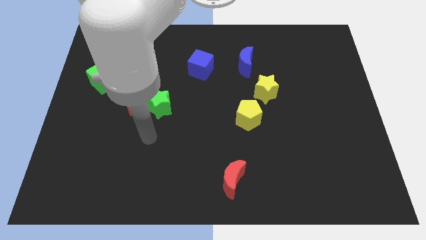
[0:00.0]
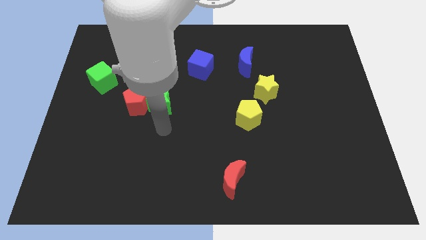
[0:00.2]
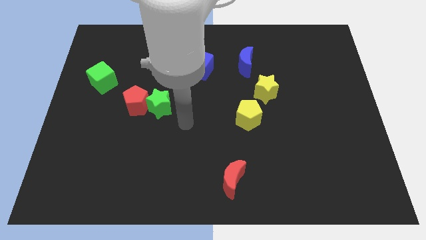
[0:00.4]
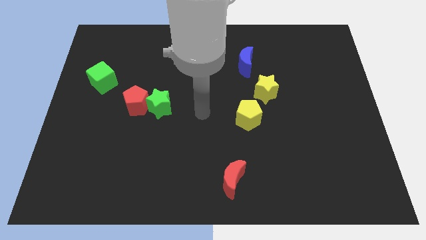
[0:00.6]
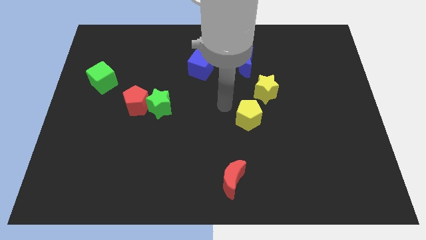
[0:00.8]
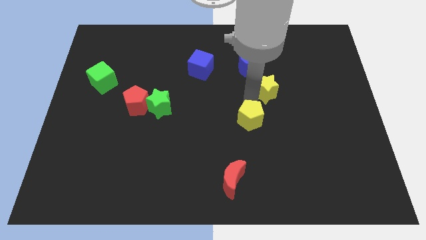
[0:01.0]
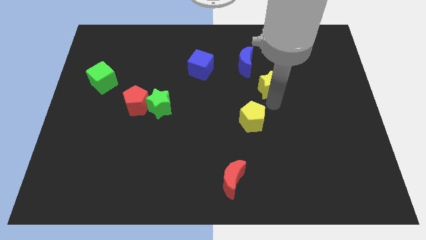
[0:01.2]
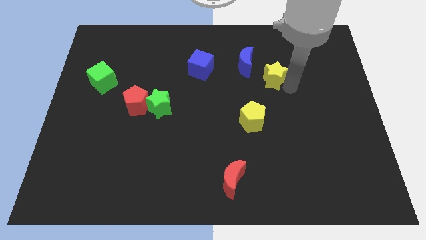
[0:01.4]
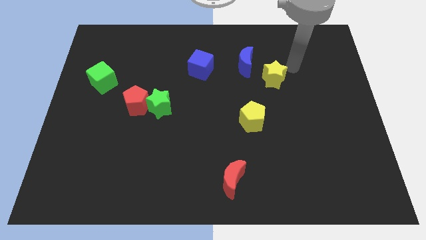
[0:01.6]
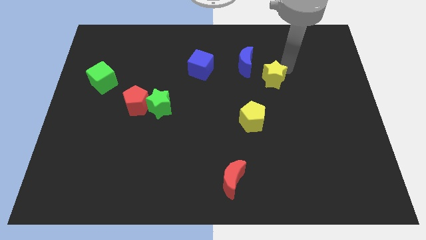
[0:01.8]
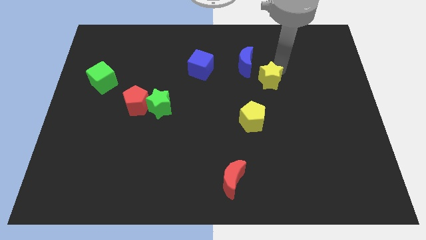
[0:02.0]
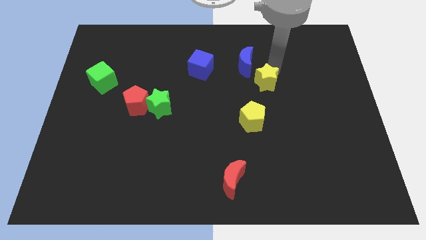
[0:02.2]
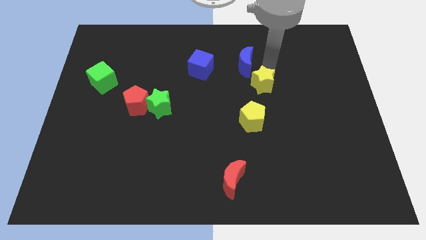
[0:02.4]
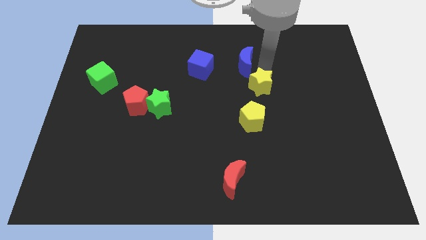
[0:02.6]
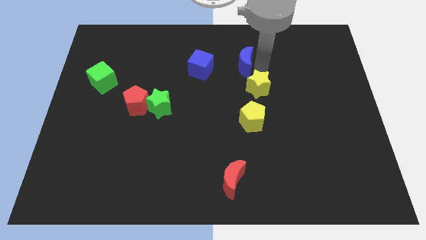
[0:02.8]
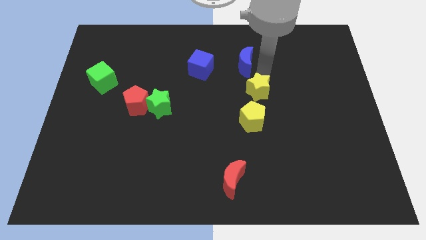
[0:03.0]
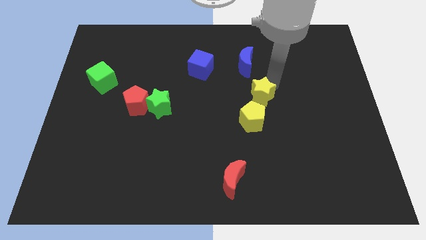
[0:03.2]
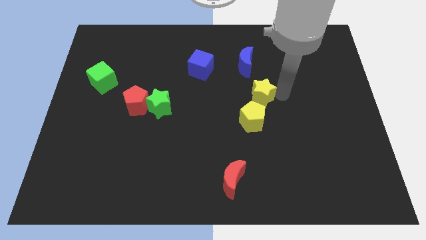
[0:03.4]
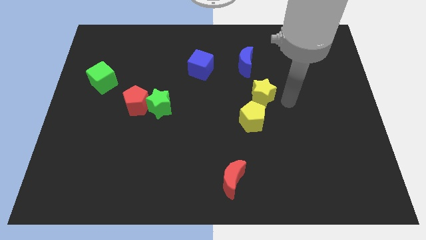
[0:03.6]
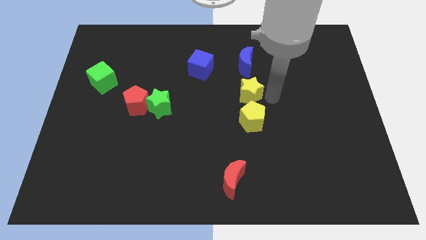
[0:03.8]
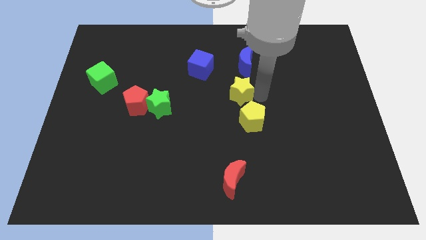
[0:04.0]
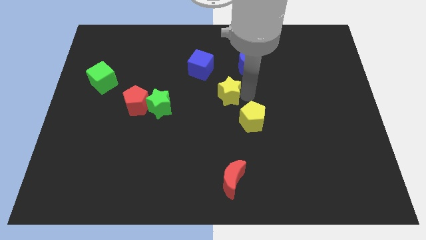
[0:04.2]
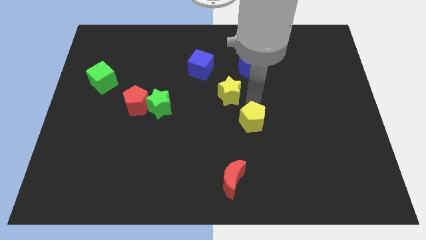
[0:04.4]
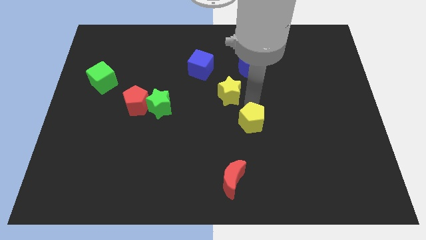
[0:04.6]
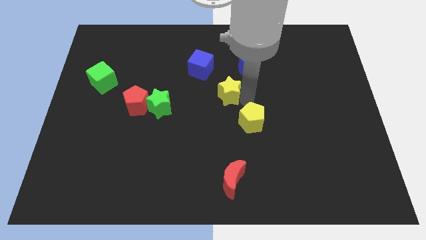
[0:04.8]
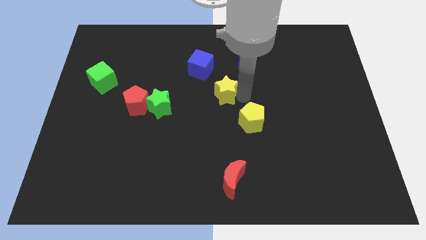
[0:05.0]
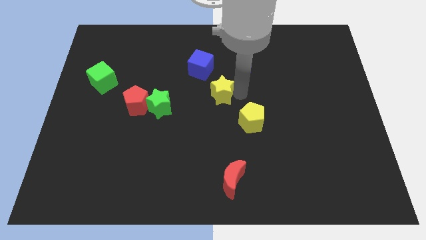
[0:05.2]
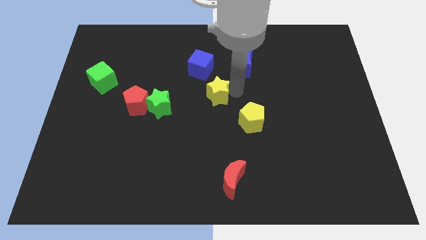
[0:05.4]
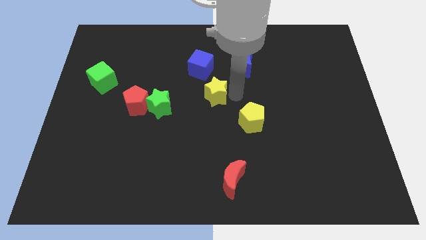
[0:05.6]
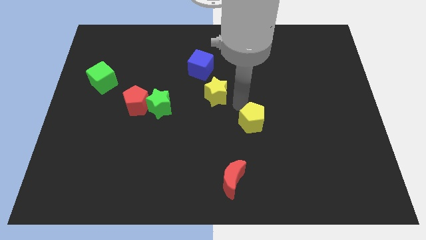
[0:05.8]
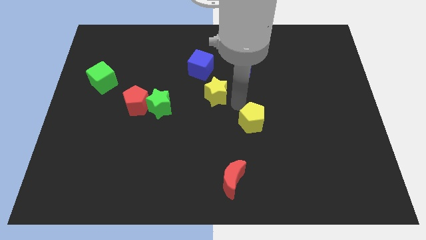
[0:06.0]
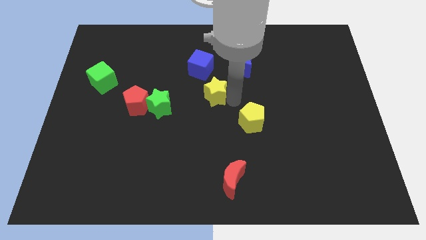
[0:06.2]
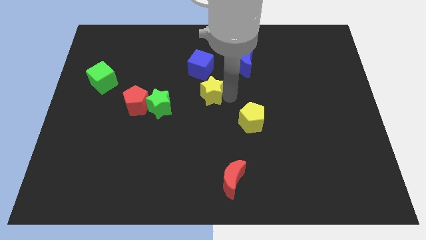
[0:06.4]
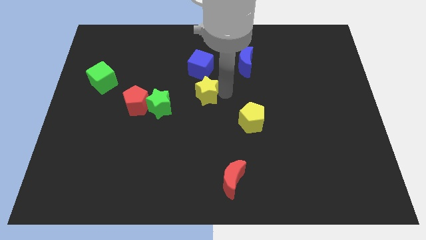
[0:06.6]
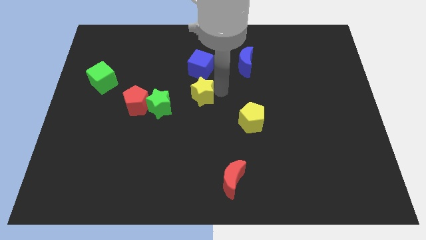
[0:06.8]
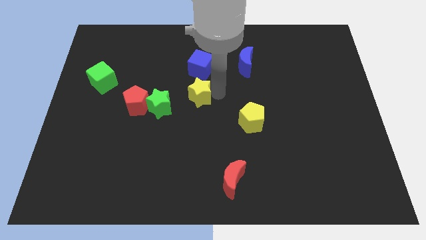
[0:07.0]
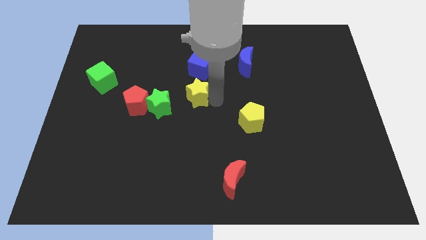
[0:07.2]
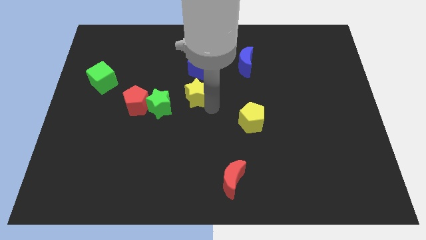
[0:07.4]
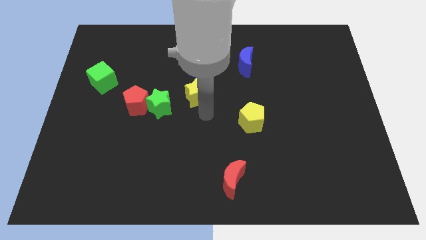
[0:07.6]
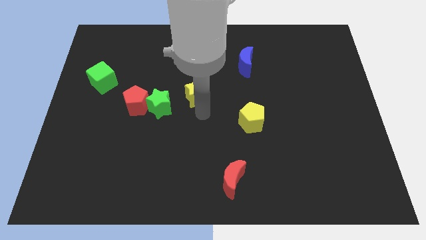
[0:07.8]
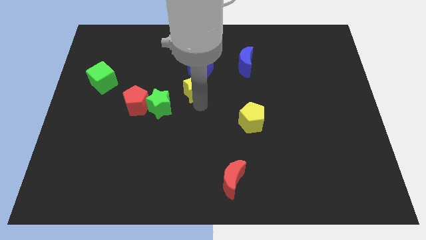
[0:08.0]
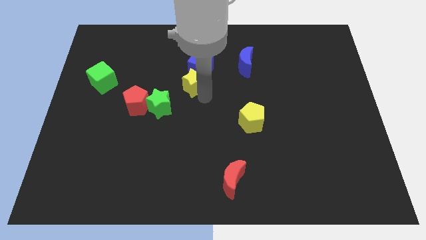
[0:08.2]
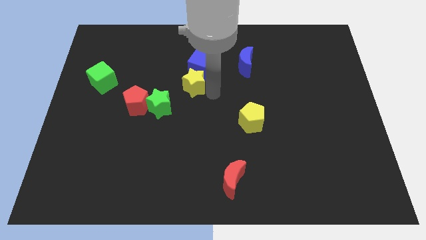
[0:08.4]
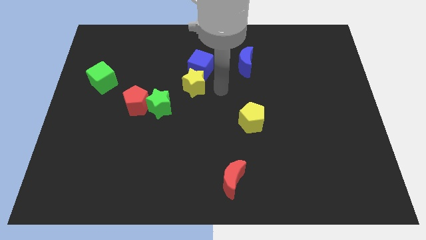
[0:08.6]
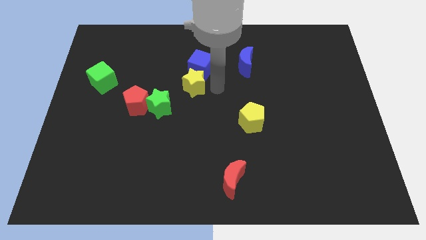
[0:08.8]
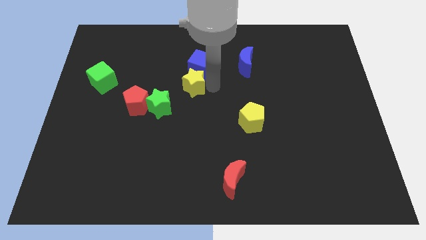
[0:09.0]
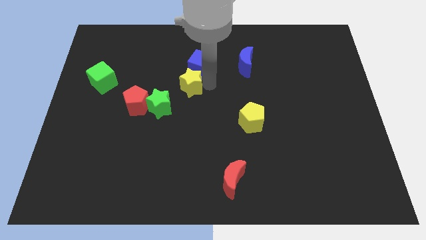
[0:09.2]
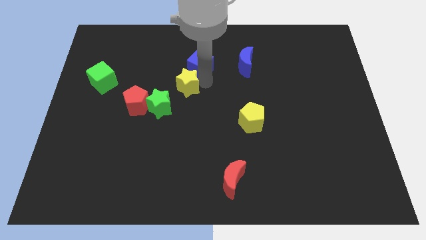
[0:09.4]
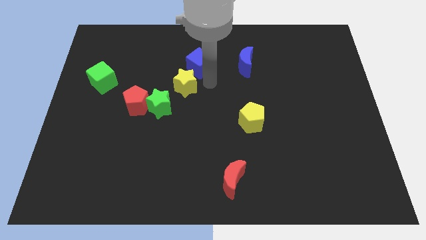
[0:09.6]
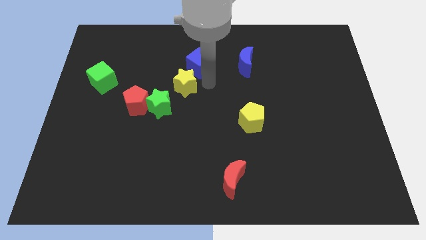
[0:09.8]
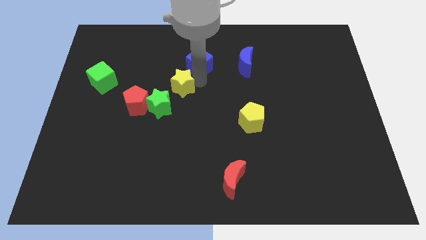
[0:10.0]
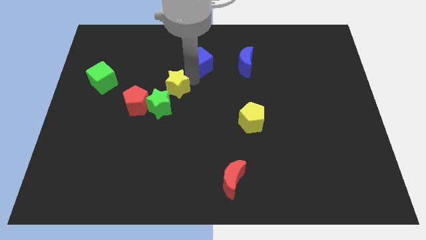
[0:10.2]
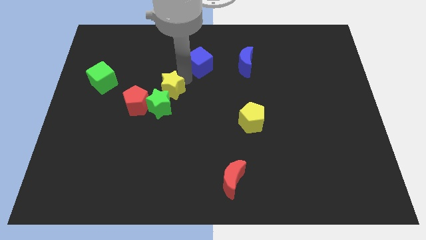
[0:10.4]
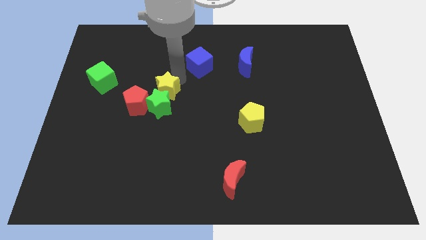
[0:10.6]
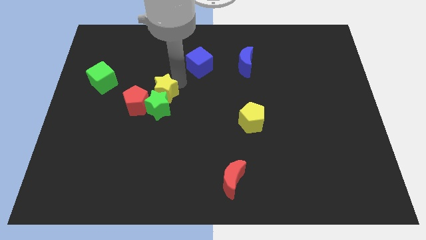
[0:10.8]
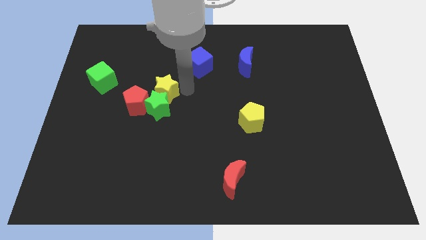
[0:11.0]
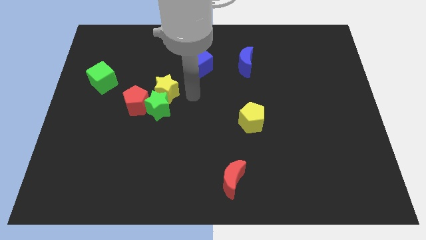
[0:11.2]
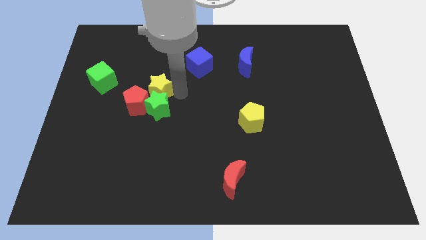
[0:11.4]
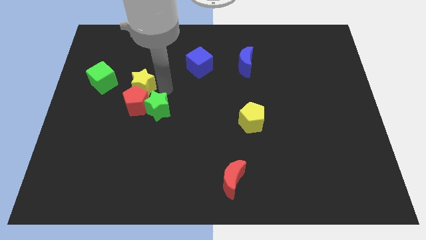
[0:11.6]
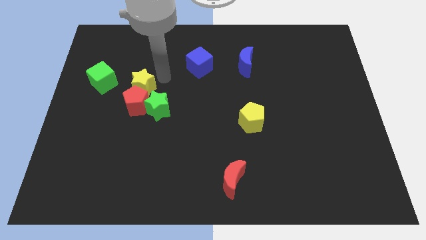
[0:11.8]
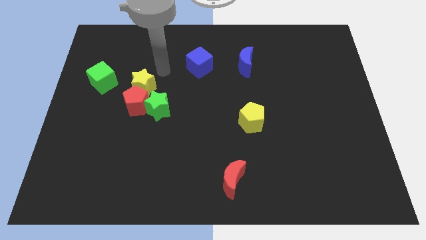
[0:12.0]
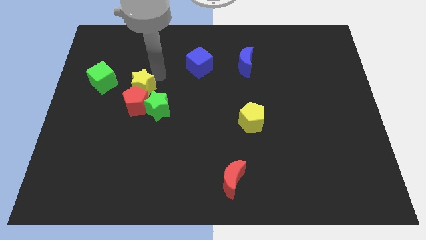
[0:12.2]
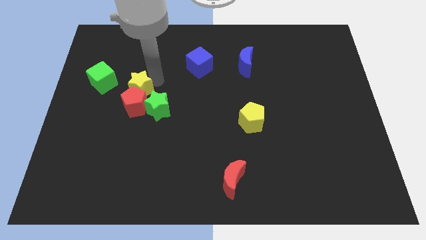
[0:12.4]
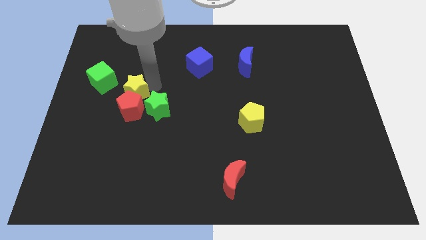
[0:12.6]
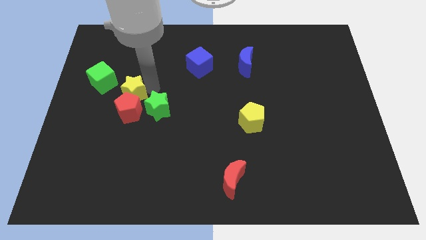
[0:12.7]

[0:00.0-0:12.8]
put the yellow star to the left side of the green star
